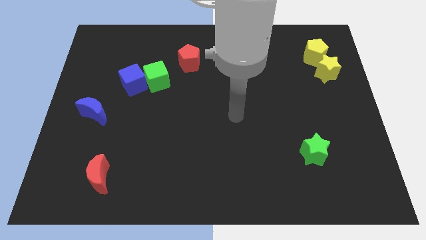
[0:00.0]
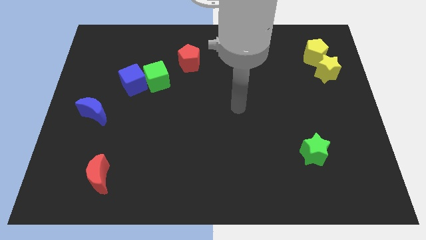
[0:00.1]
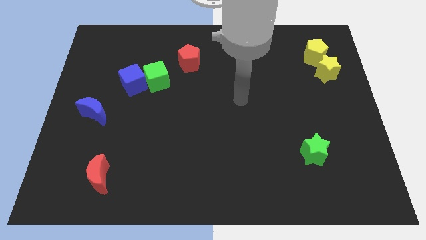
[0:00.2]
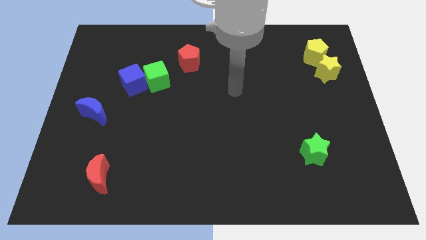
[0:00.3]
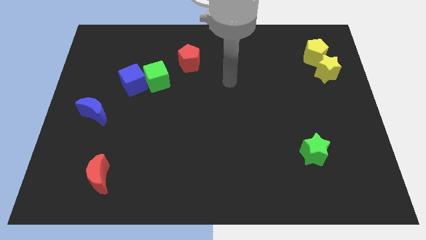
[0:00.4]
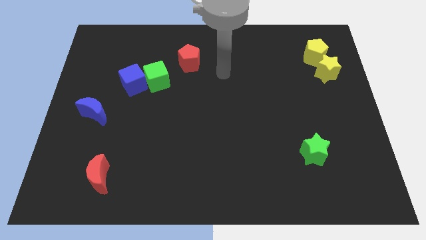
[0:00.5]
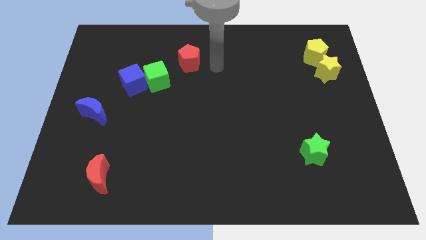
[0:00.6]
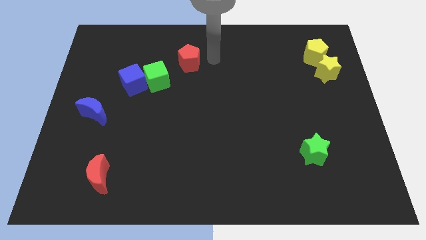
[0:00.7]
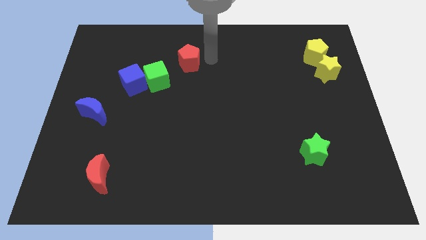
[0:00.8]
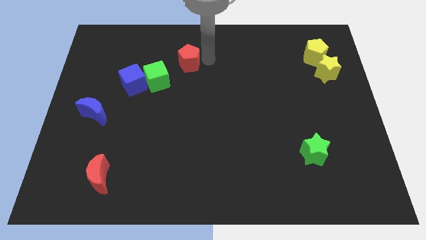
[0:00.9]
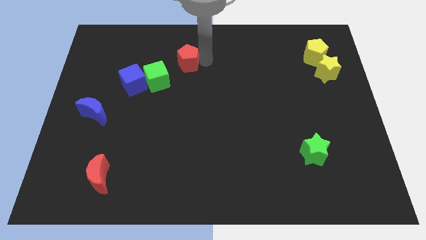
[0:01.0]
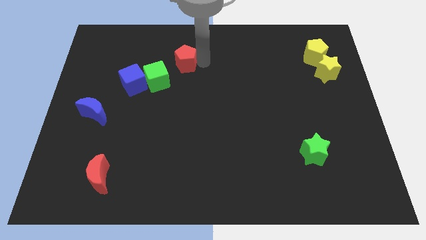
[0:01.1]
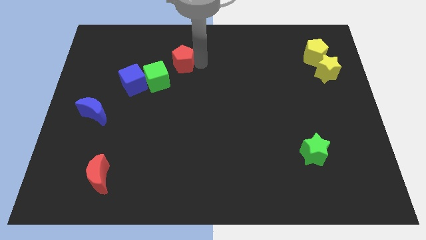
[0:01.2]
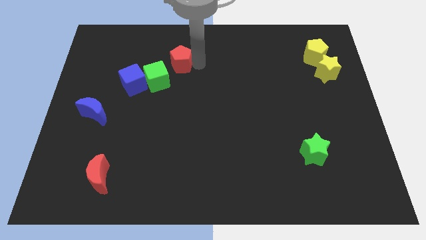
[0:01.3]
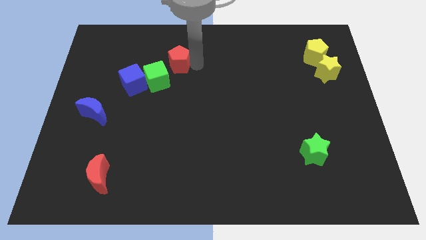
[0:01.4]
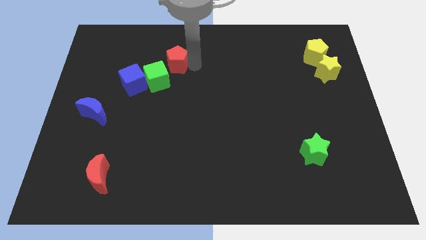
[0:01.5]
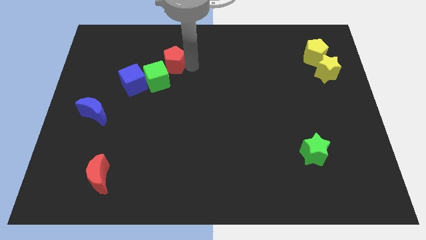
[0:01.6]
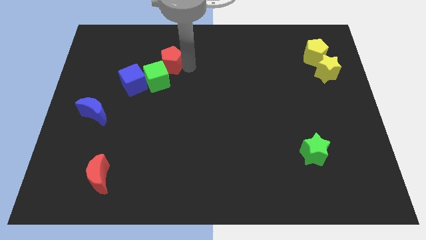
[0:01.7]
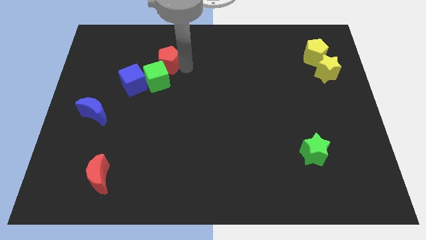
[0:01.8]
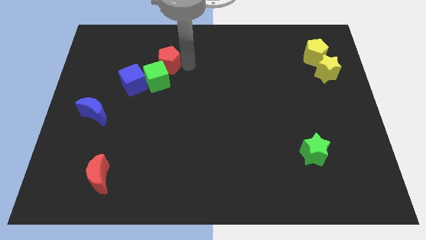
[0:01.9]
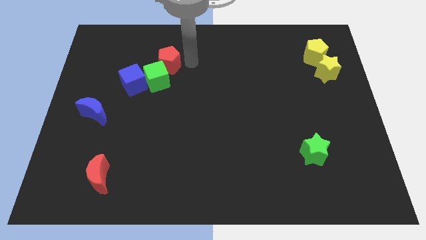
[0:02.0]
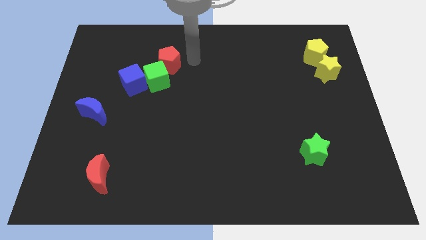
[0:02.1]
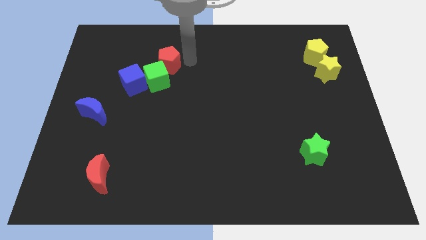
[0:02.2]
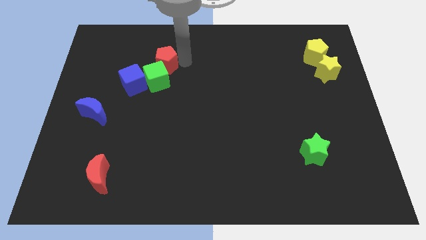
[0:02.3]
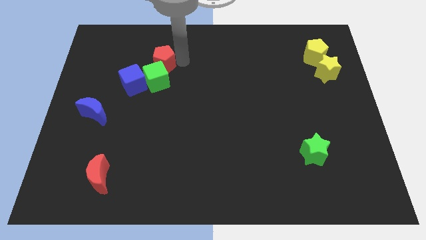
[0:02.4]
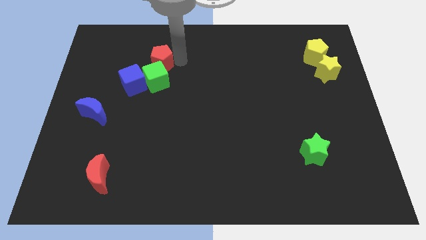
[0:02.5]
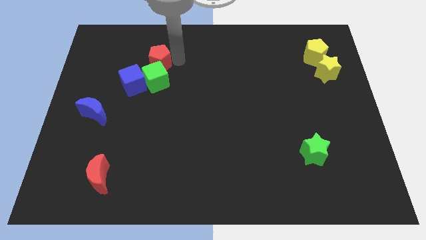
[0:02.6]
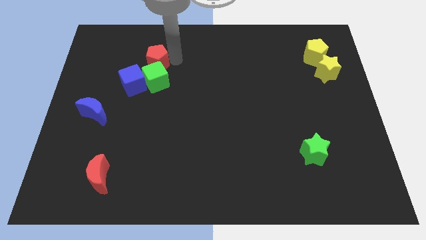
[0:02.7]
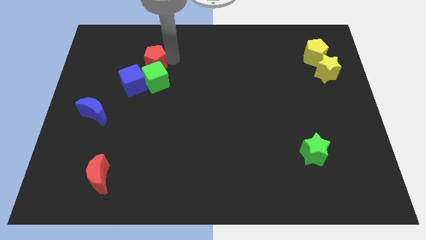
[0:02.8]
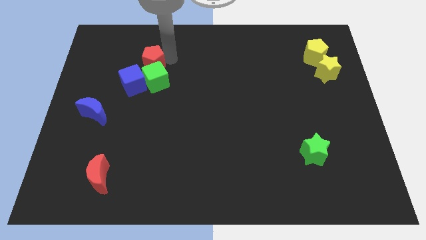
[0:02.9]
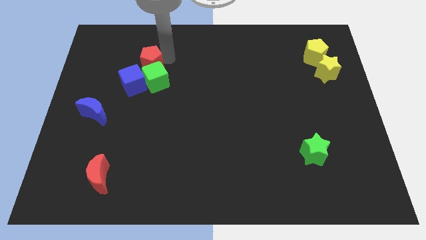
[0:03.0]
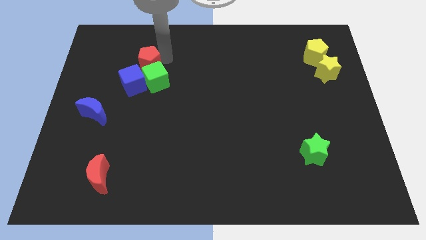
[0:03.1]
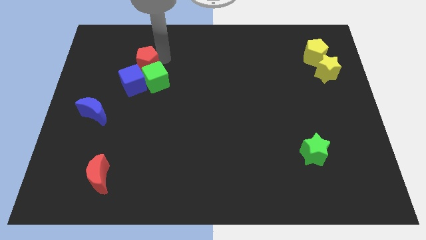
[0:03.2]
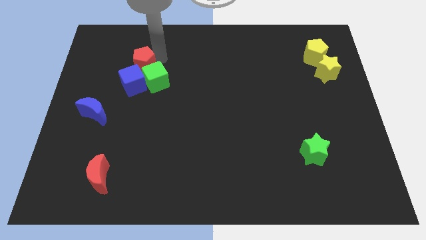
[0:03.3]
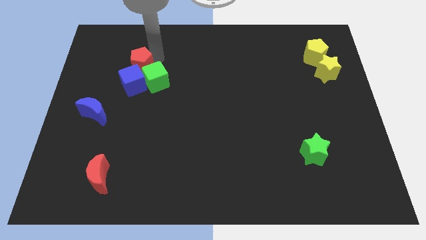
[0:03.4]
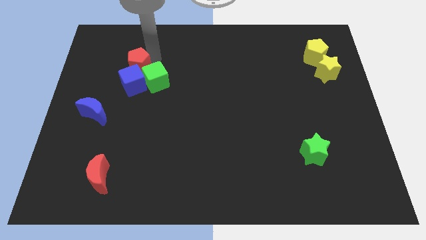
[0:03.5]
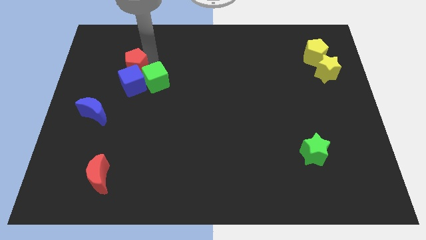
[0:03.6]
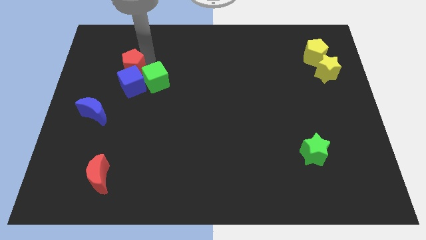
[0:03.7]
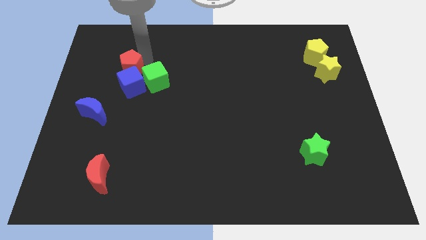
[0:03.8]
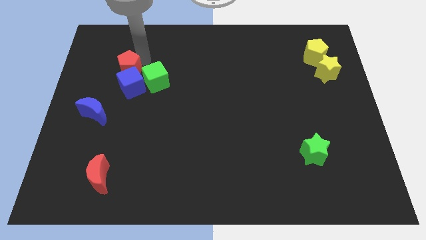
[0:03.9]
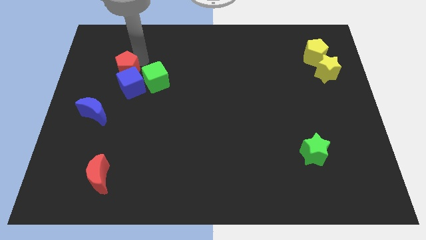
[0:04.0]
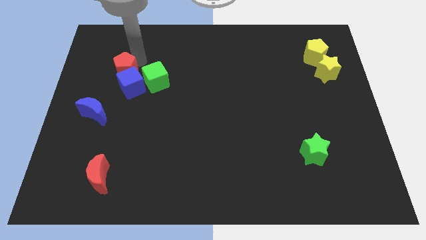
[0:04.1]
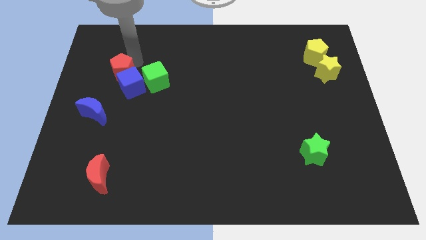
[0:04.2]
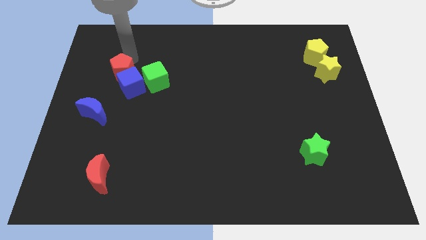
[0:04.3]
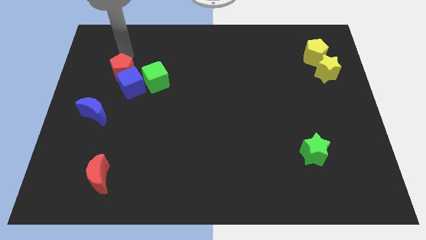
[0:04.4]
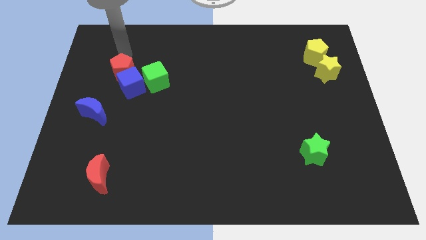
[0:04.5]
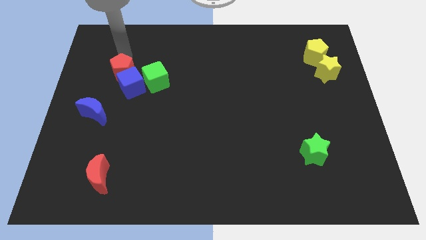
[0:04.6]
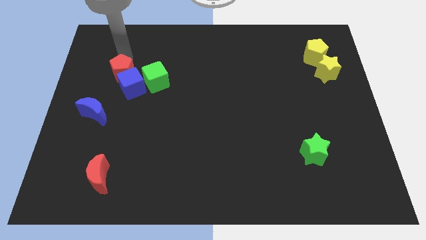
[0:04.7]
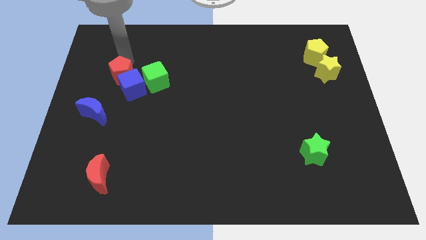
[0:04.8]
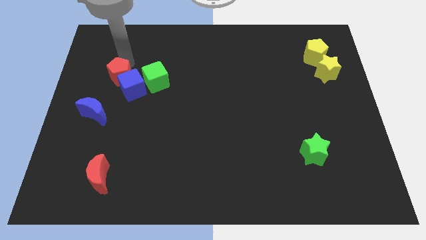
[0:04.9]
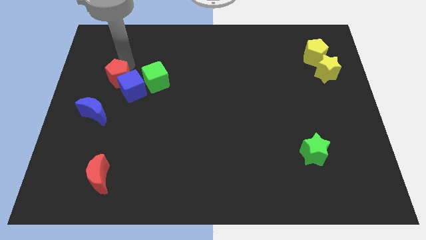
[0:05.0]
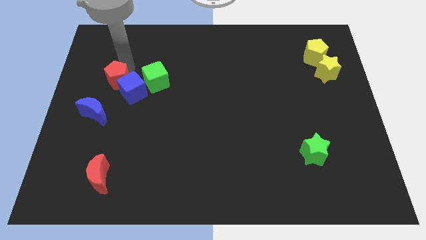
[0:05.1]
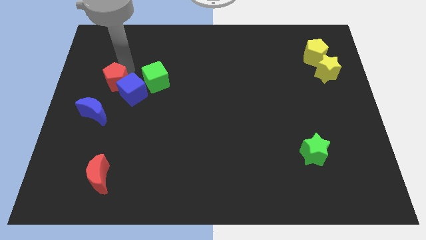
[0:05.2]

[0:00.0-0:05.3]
slide the red pentagon to the top right side of the blue moon
